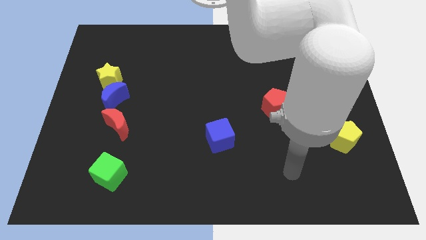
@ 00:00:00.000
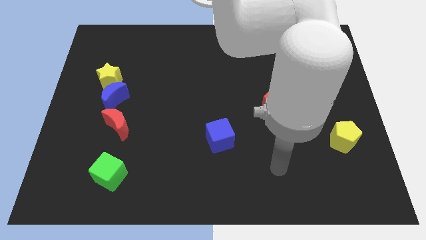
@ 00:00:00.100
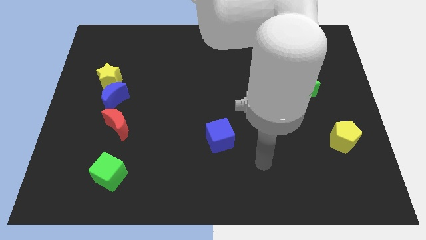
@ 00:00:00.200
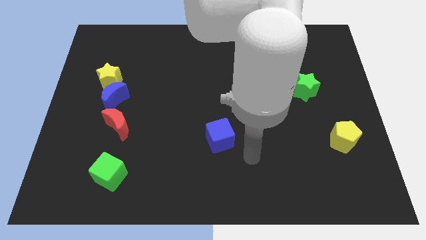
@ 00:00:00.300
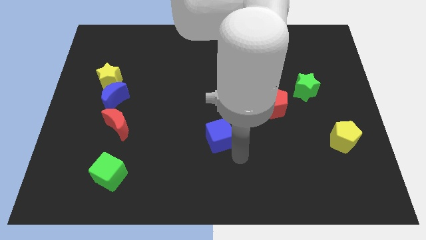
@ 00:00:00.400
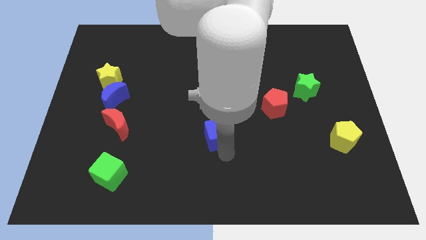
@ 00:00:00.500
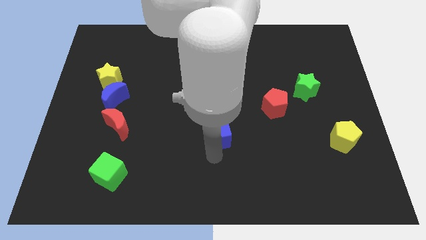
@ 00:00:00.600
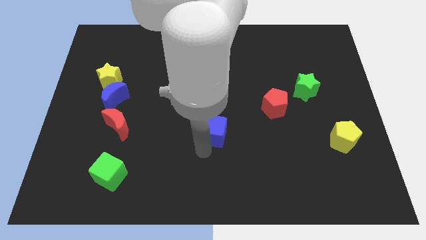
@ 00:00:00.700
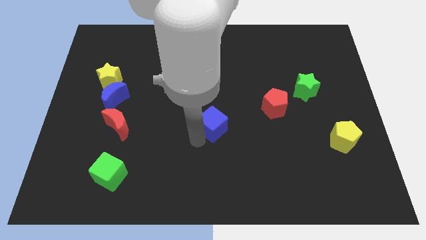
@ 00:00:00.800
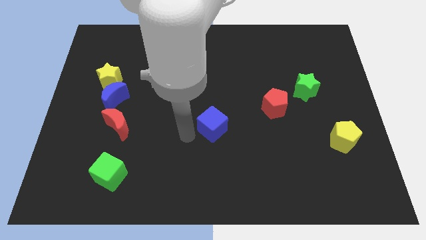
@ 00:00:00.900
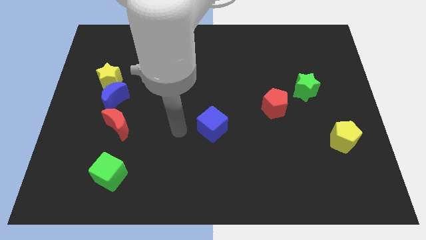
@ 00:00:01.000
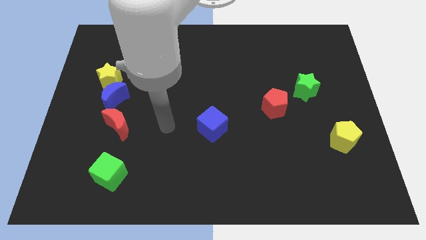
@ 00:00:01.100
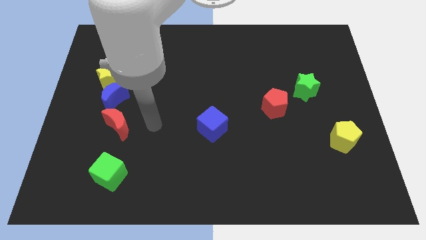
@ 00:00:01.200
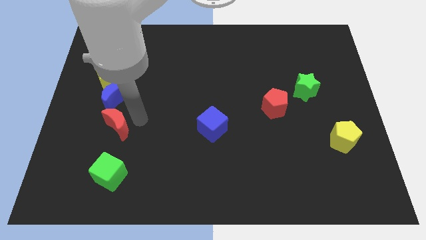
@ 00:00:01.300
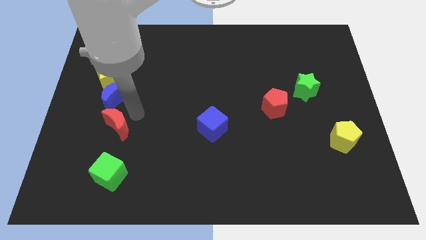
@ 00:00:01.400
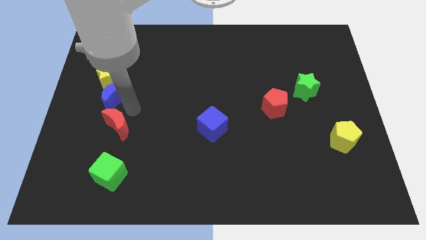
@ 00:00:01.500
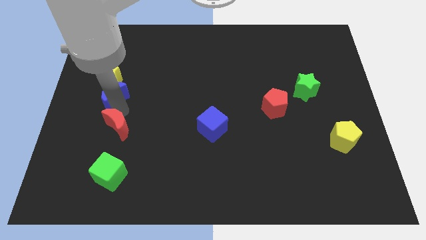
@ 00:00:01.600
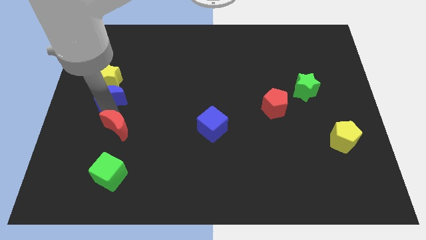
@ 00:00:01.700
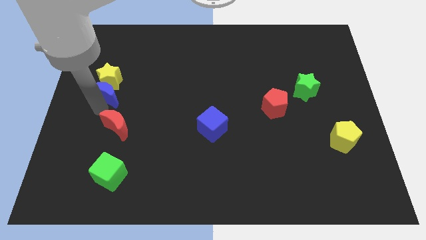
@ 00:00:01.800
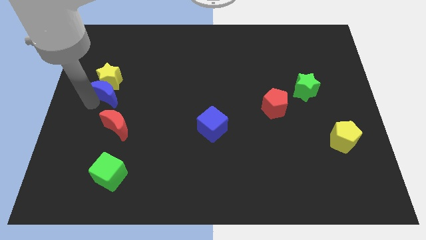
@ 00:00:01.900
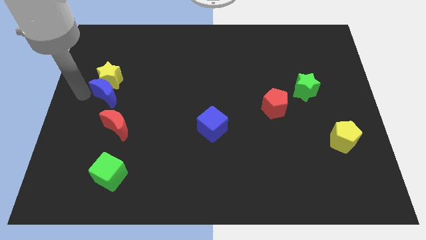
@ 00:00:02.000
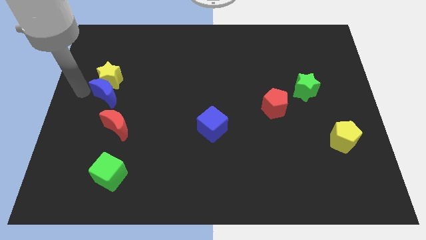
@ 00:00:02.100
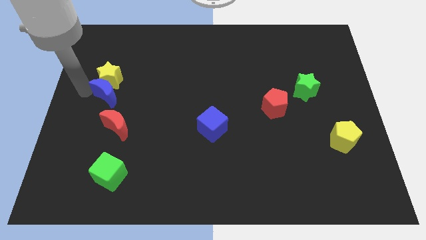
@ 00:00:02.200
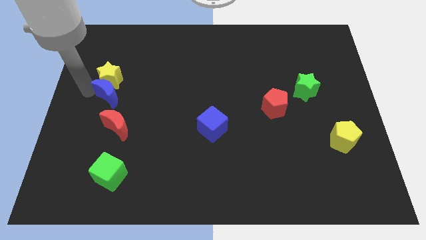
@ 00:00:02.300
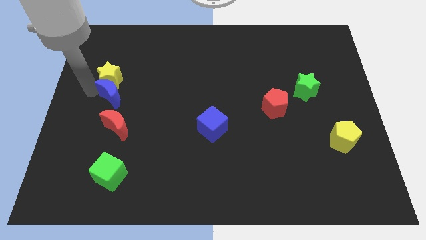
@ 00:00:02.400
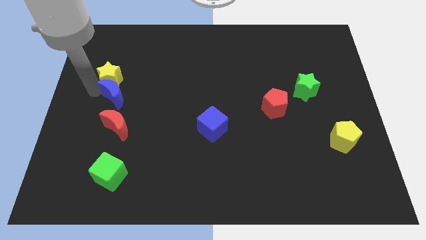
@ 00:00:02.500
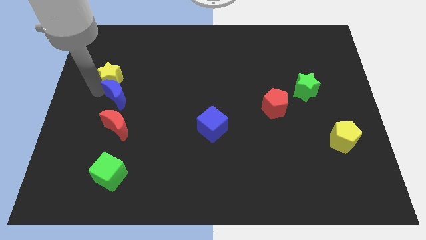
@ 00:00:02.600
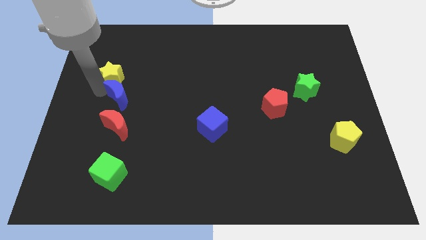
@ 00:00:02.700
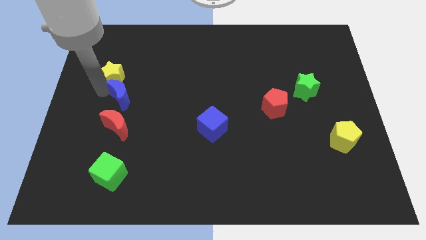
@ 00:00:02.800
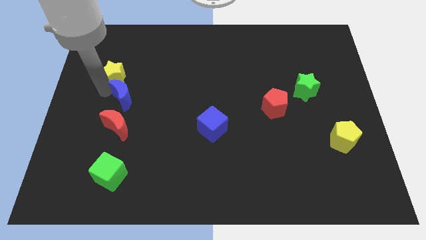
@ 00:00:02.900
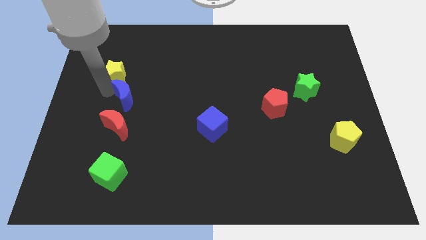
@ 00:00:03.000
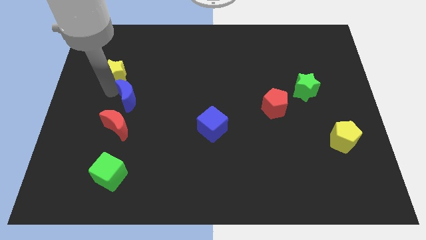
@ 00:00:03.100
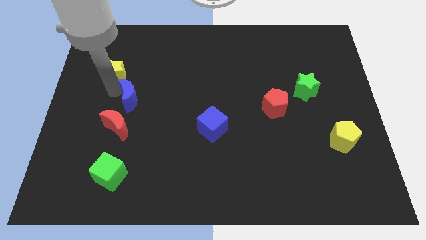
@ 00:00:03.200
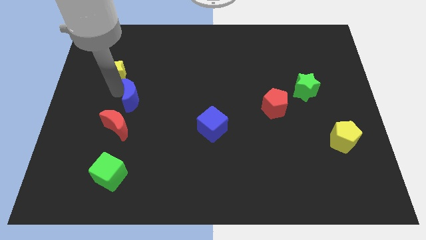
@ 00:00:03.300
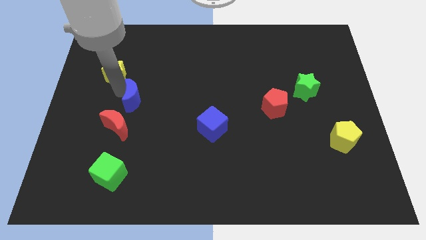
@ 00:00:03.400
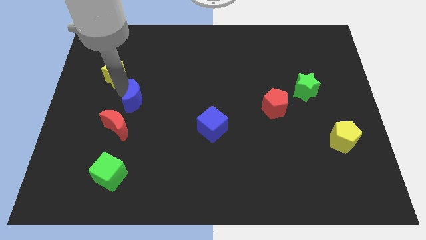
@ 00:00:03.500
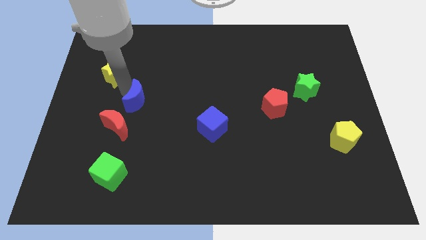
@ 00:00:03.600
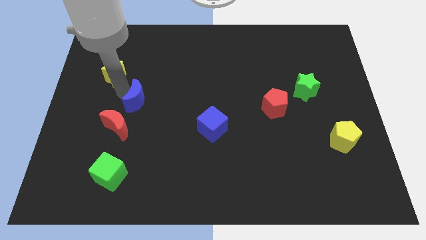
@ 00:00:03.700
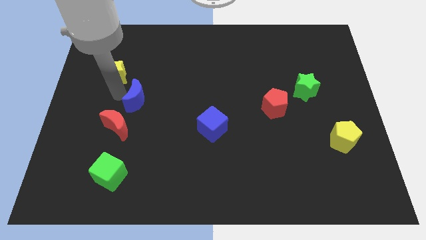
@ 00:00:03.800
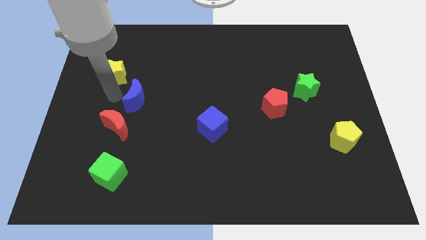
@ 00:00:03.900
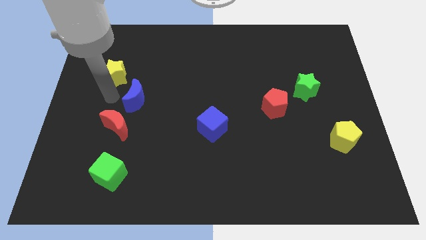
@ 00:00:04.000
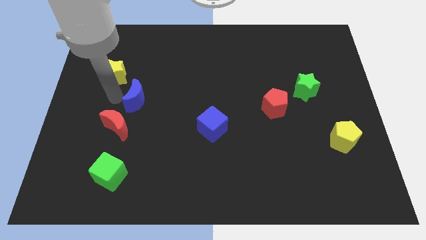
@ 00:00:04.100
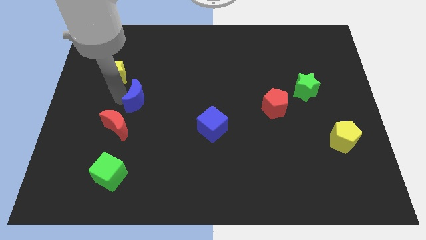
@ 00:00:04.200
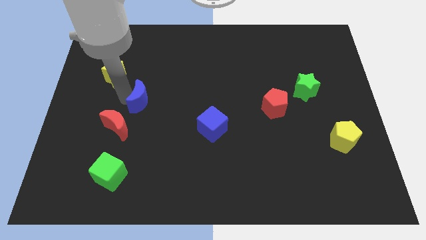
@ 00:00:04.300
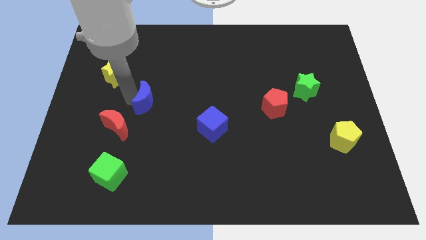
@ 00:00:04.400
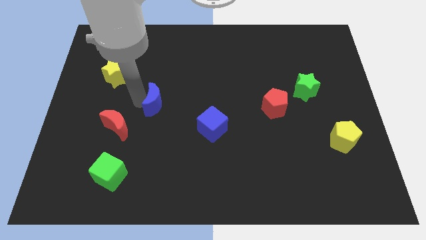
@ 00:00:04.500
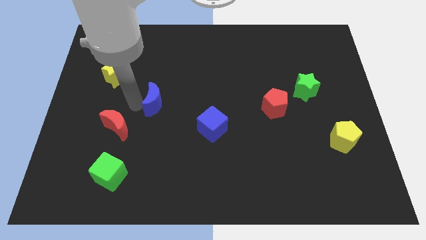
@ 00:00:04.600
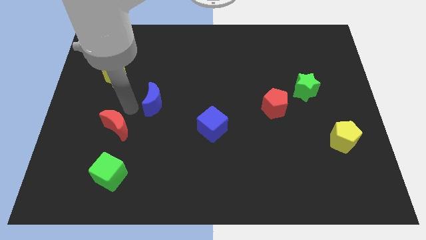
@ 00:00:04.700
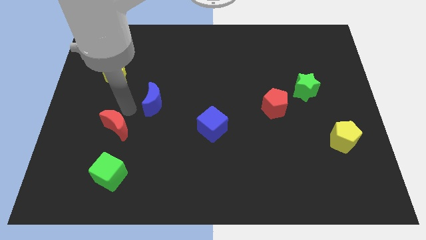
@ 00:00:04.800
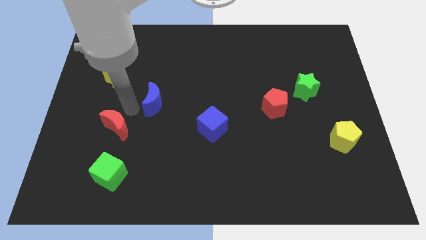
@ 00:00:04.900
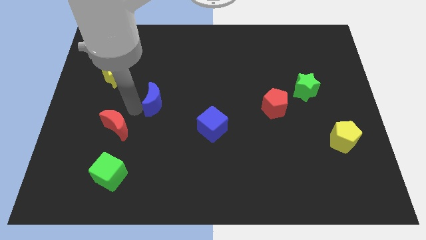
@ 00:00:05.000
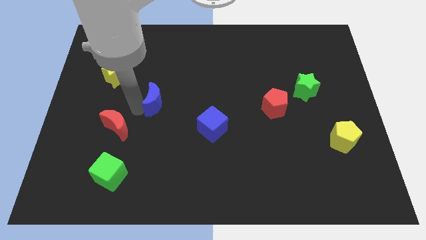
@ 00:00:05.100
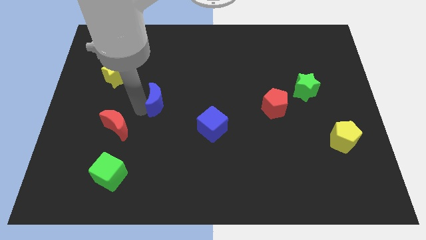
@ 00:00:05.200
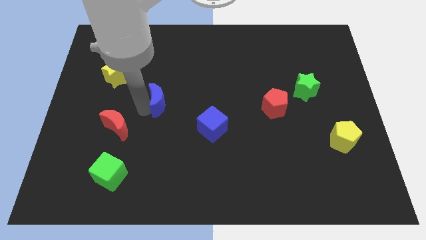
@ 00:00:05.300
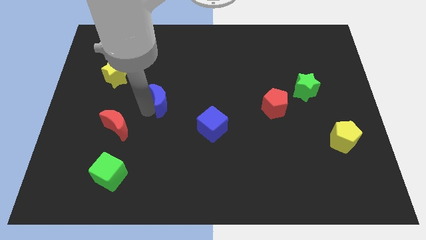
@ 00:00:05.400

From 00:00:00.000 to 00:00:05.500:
put the blue moon to the center of the board

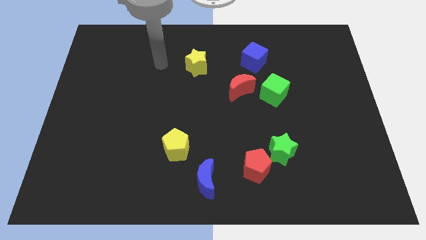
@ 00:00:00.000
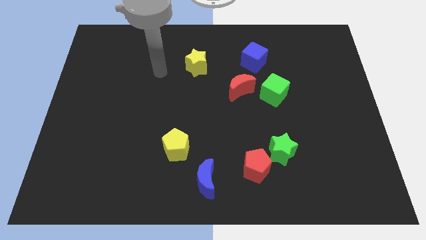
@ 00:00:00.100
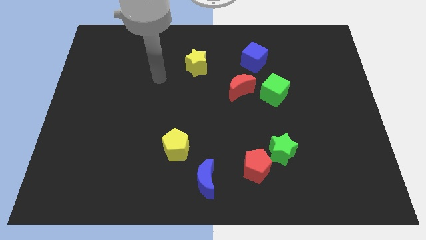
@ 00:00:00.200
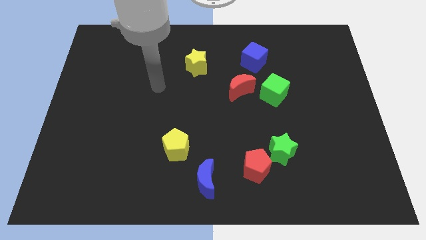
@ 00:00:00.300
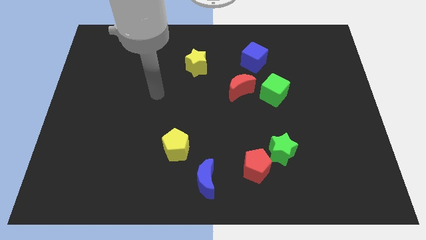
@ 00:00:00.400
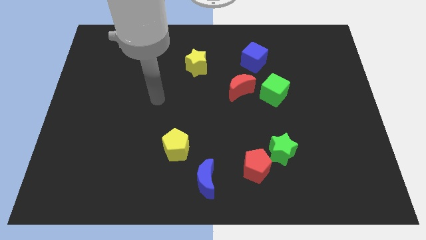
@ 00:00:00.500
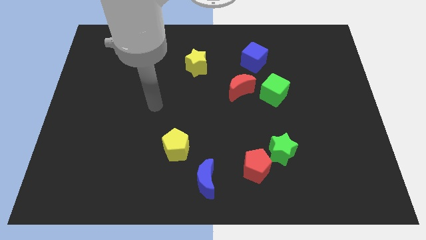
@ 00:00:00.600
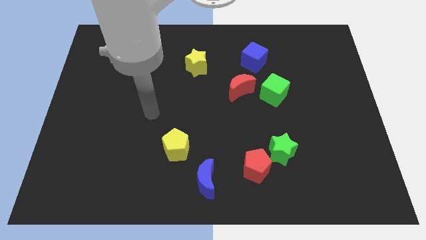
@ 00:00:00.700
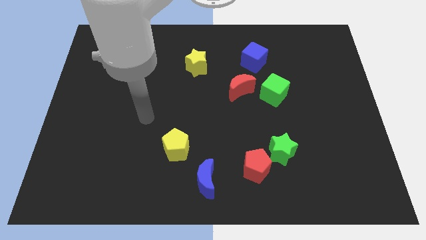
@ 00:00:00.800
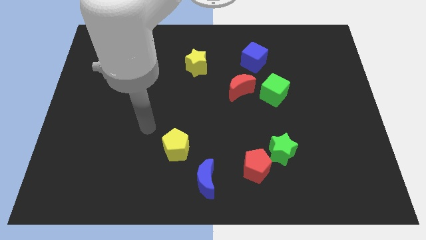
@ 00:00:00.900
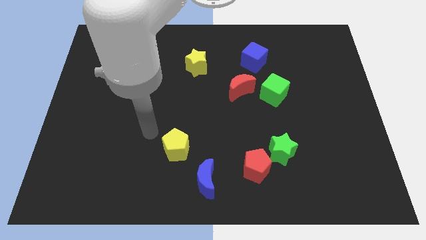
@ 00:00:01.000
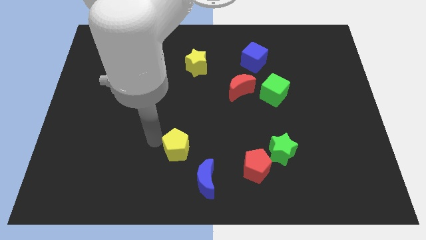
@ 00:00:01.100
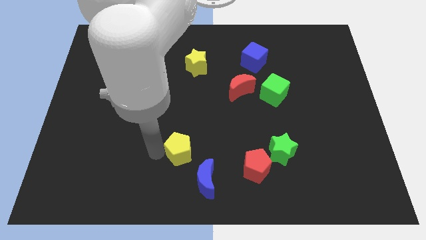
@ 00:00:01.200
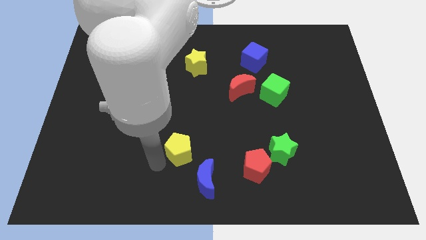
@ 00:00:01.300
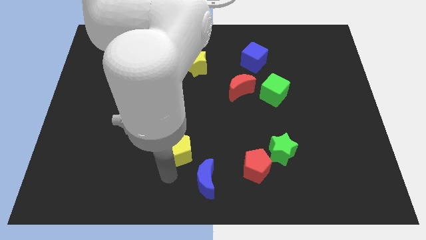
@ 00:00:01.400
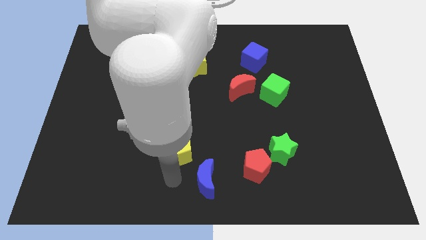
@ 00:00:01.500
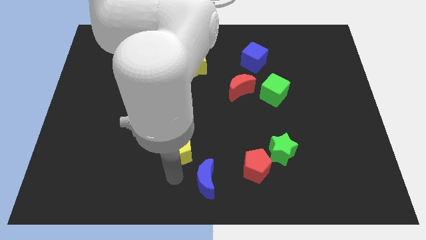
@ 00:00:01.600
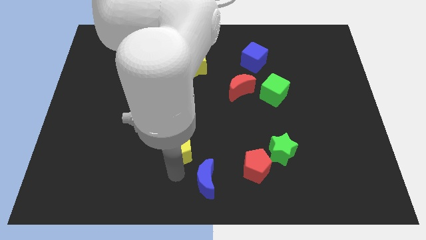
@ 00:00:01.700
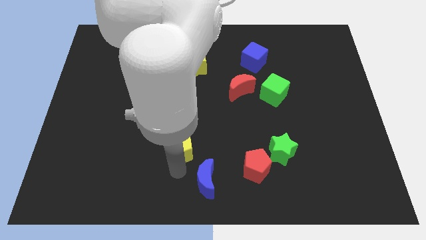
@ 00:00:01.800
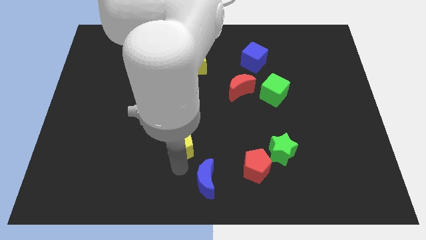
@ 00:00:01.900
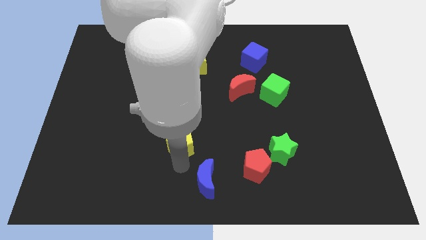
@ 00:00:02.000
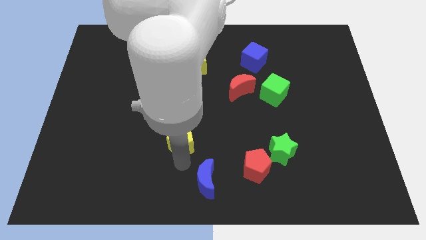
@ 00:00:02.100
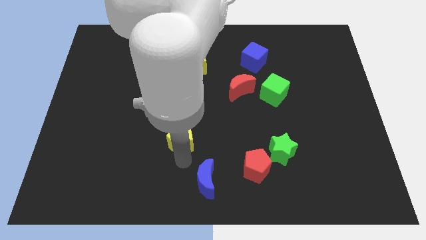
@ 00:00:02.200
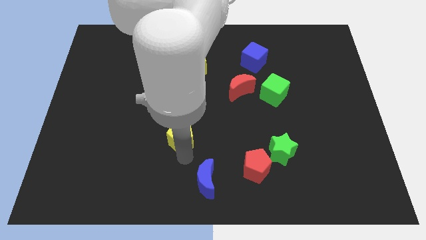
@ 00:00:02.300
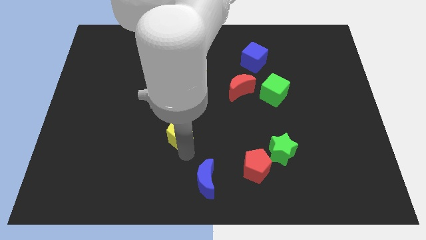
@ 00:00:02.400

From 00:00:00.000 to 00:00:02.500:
slide the yellow pentagon to the middle of the board
